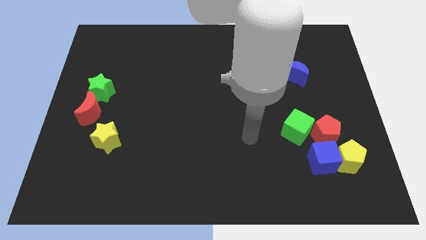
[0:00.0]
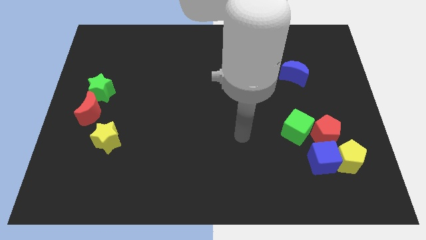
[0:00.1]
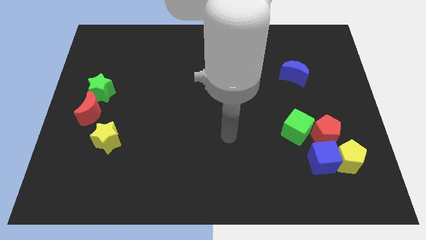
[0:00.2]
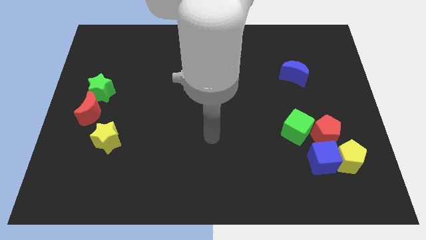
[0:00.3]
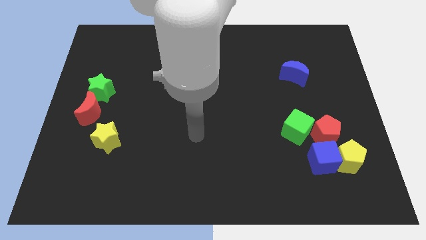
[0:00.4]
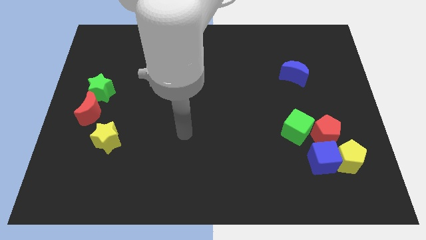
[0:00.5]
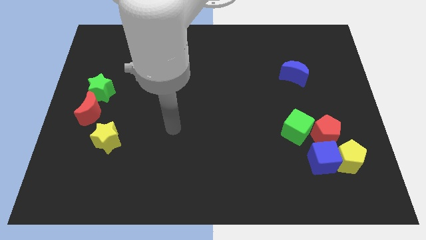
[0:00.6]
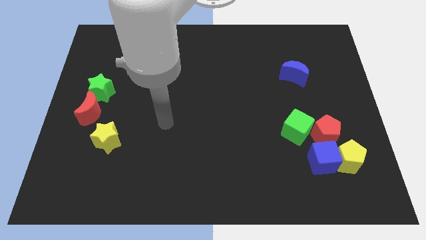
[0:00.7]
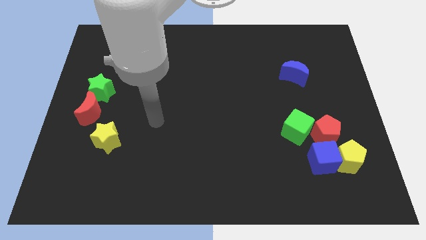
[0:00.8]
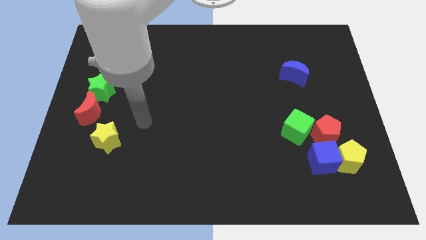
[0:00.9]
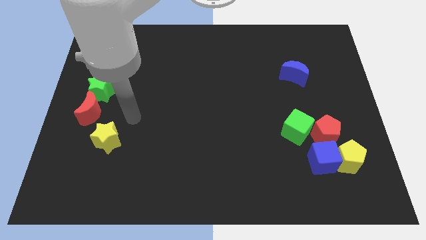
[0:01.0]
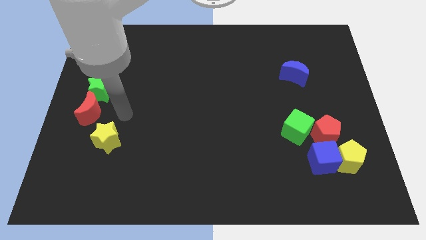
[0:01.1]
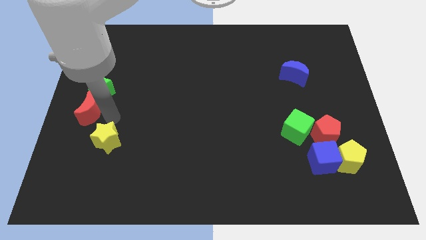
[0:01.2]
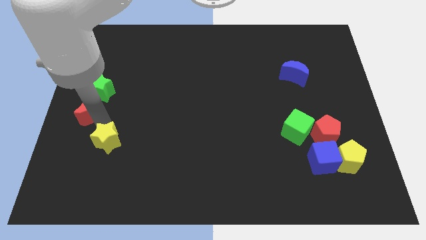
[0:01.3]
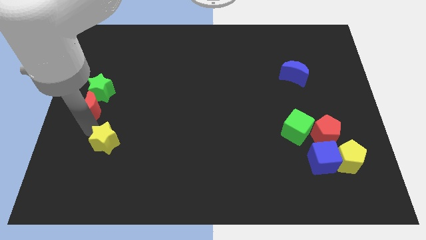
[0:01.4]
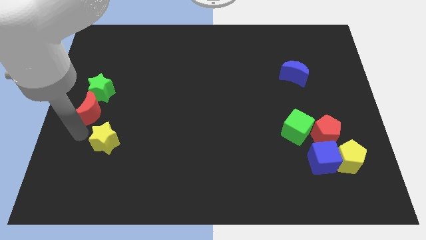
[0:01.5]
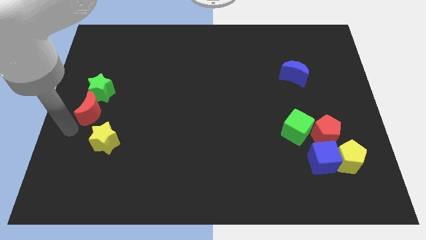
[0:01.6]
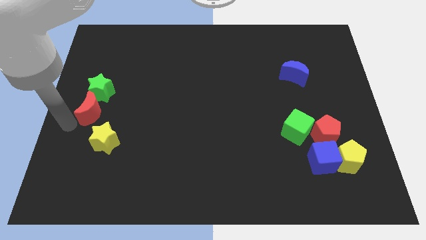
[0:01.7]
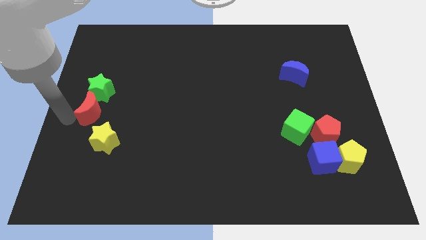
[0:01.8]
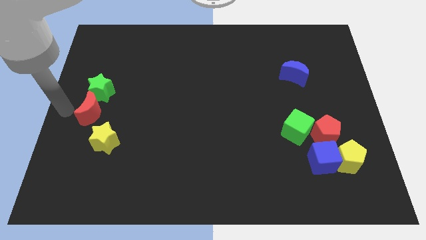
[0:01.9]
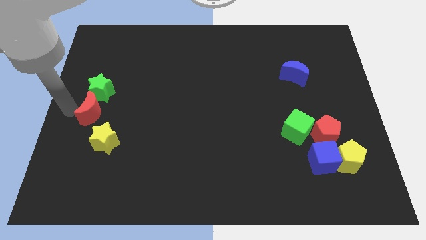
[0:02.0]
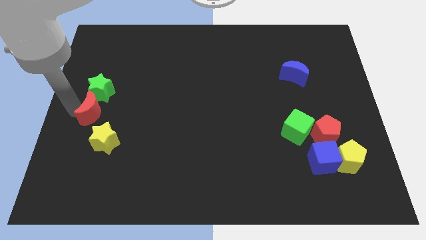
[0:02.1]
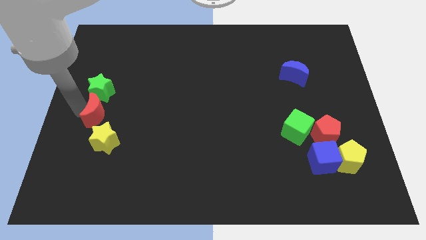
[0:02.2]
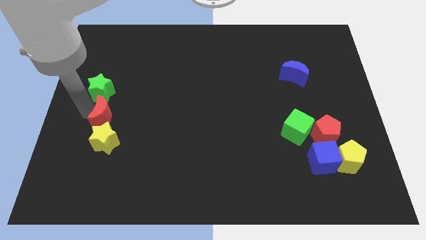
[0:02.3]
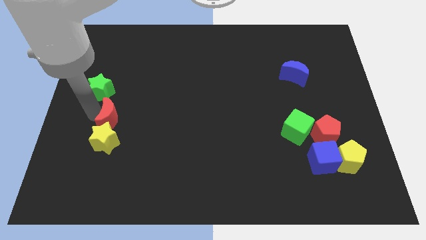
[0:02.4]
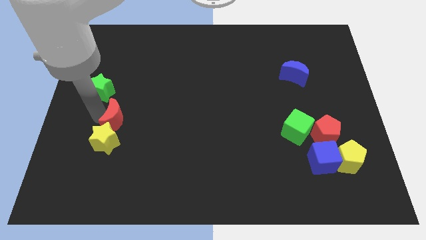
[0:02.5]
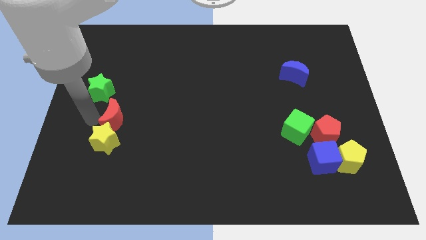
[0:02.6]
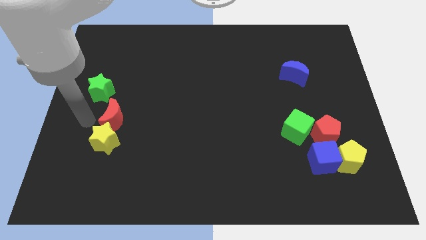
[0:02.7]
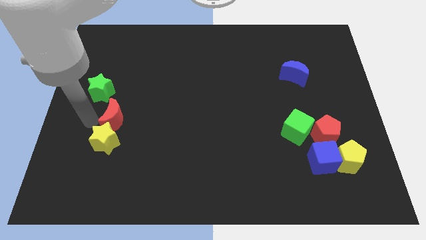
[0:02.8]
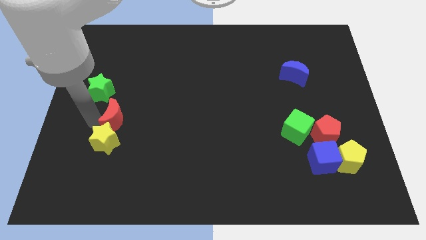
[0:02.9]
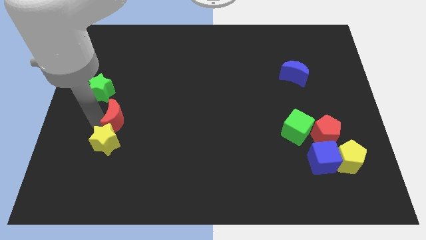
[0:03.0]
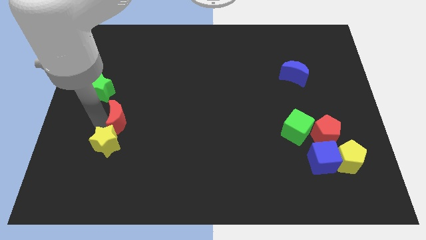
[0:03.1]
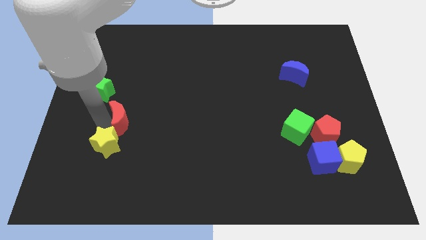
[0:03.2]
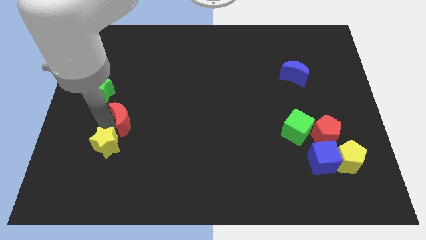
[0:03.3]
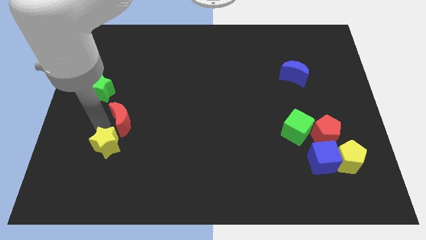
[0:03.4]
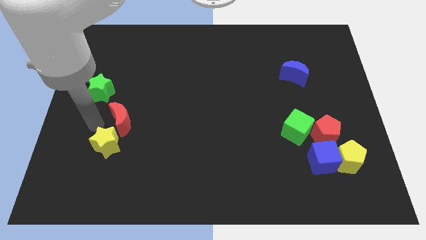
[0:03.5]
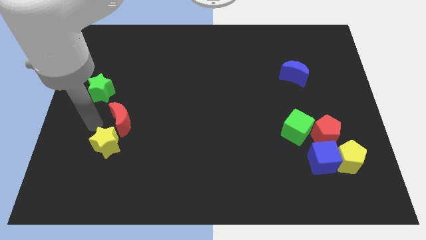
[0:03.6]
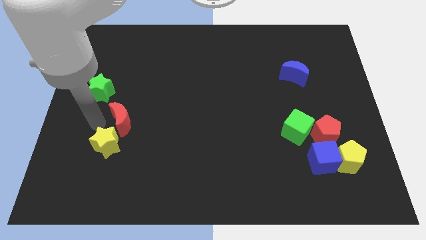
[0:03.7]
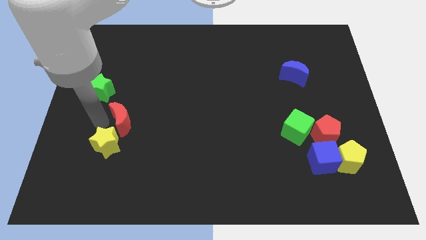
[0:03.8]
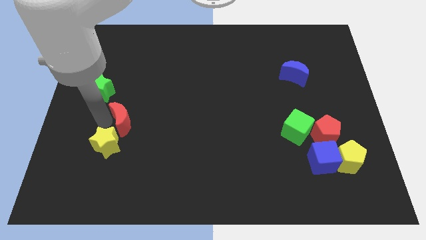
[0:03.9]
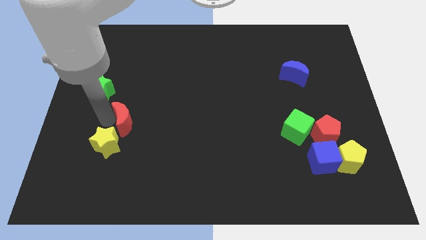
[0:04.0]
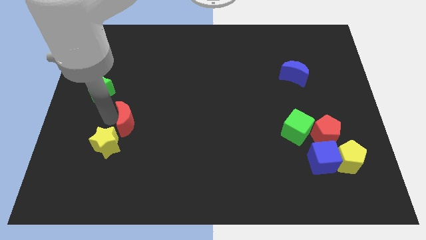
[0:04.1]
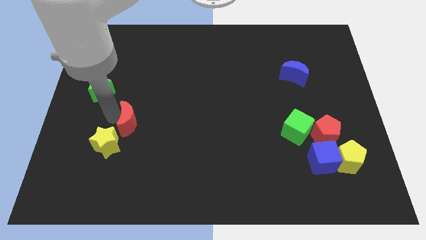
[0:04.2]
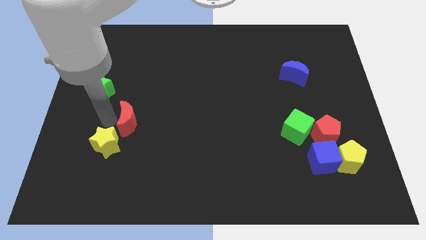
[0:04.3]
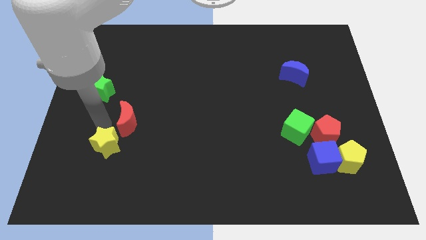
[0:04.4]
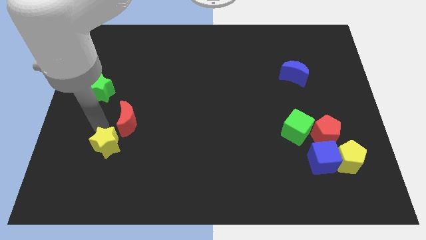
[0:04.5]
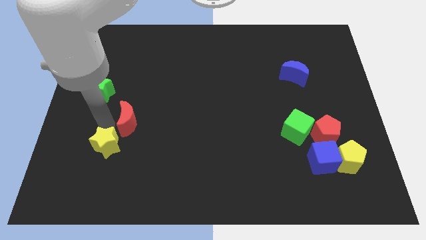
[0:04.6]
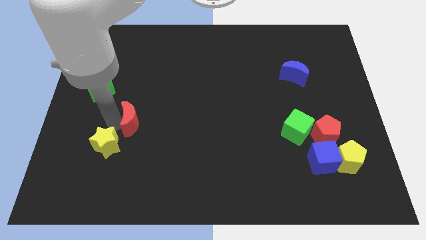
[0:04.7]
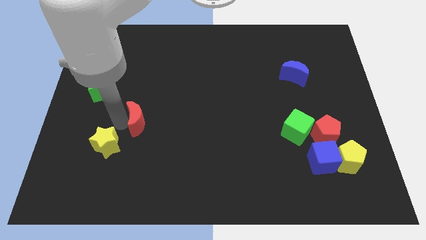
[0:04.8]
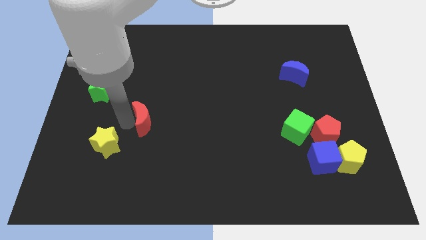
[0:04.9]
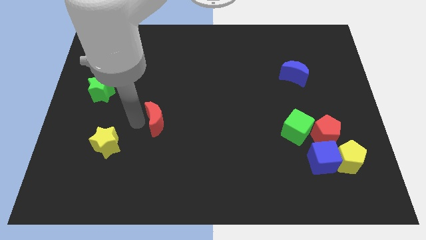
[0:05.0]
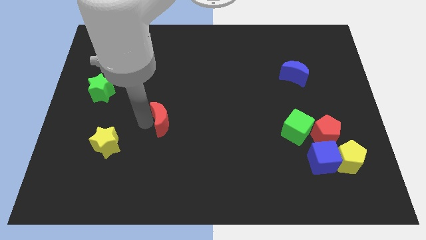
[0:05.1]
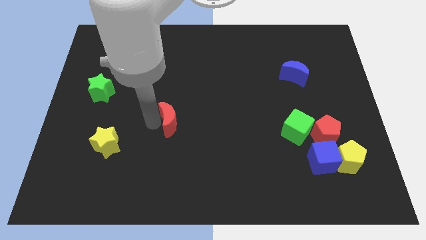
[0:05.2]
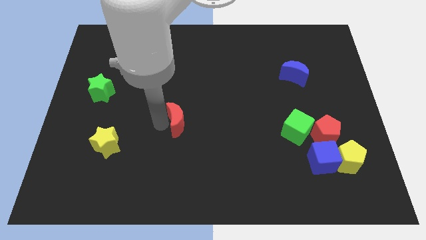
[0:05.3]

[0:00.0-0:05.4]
move the red moon to the right

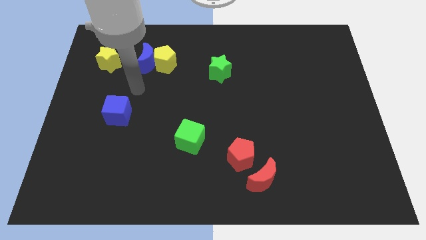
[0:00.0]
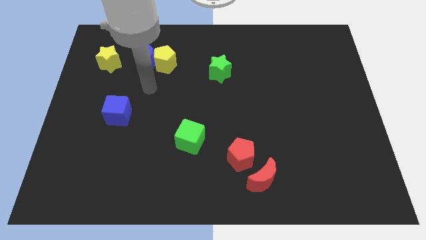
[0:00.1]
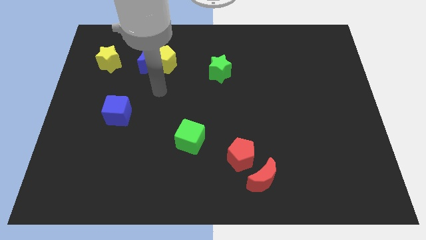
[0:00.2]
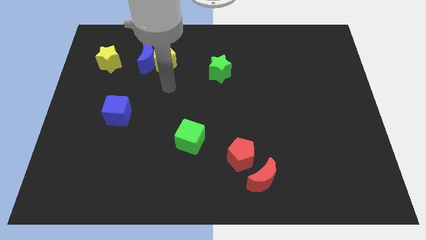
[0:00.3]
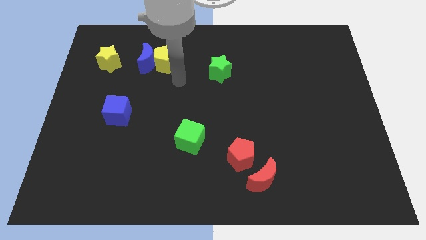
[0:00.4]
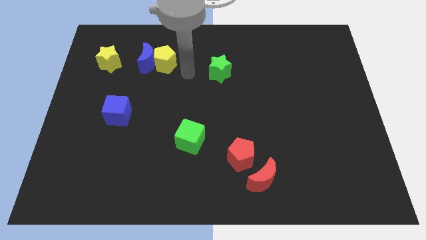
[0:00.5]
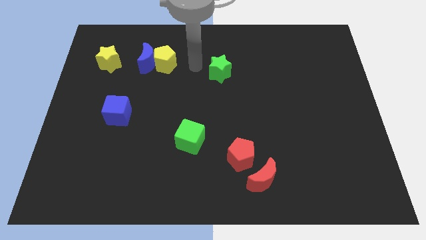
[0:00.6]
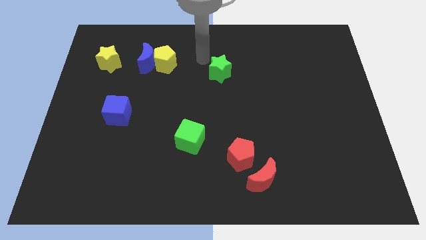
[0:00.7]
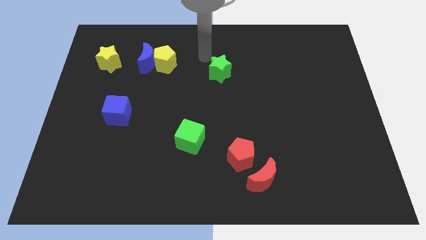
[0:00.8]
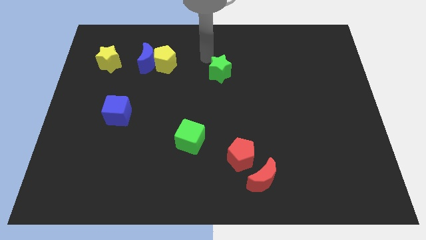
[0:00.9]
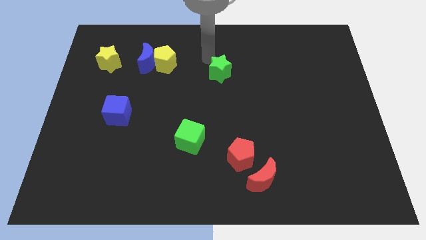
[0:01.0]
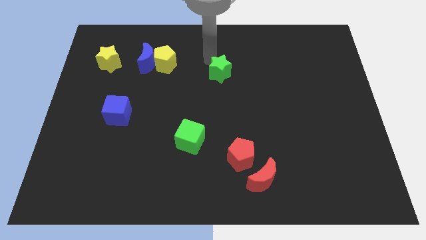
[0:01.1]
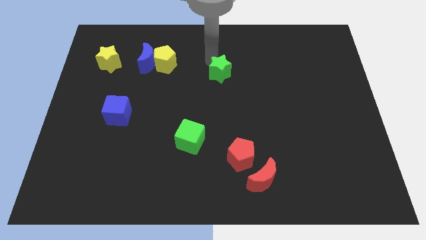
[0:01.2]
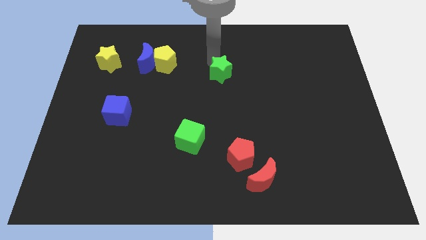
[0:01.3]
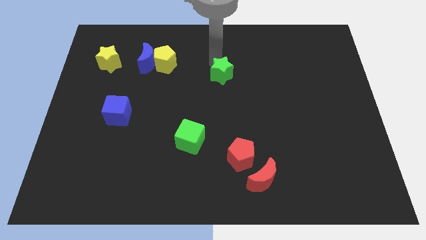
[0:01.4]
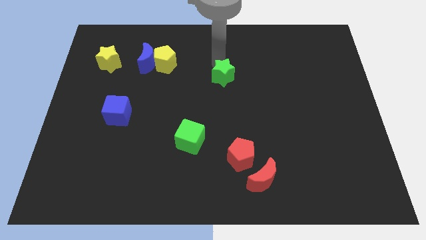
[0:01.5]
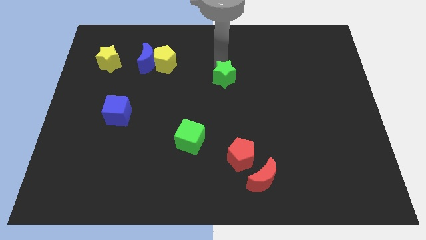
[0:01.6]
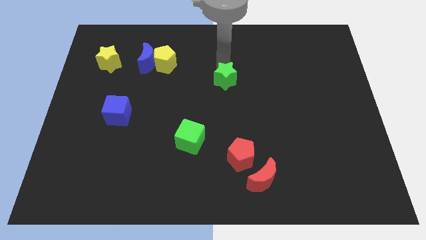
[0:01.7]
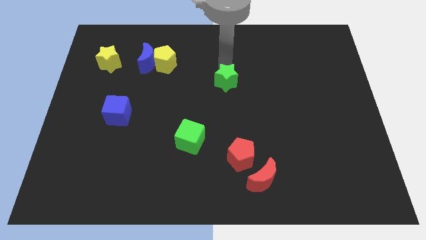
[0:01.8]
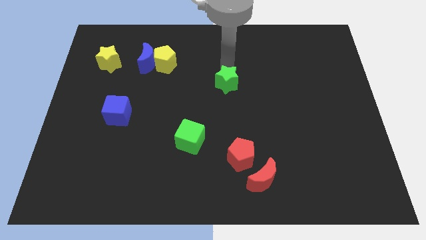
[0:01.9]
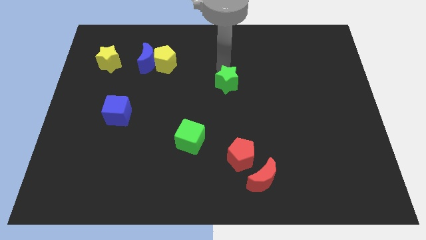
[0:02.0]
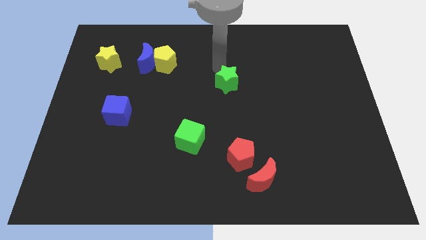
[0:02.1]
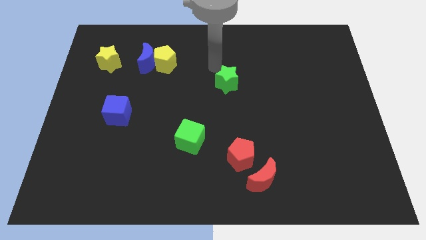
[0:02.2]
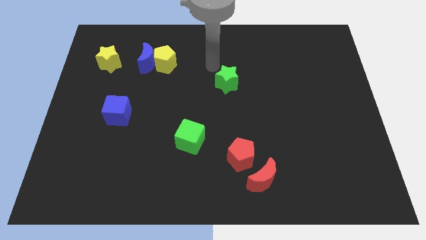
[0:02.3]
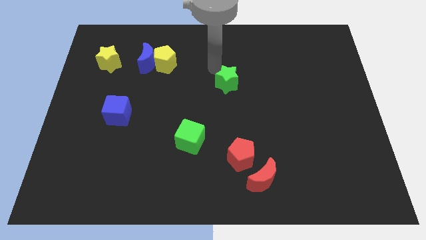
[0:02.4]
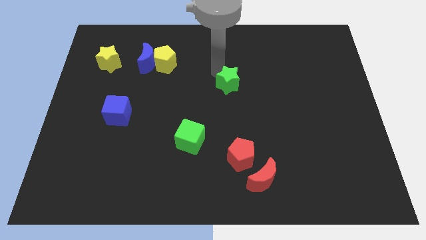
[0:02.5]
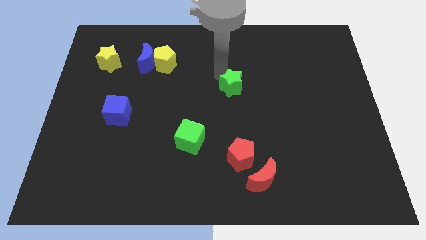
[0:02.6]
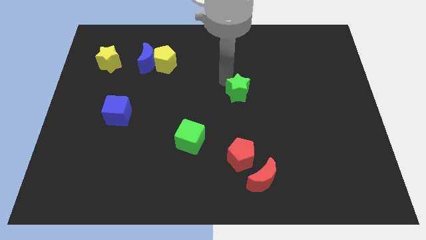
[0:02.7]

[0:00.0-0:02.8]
slightly push the green star down and right diagonally
